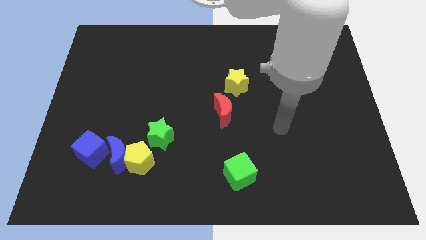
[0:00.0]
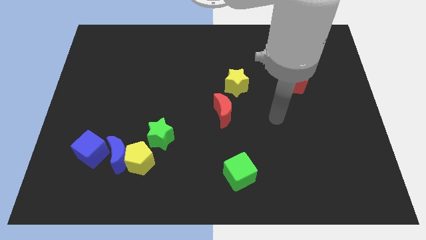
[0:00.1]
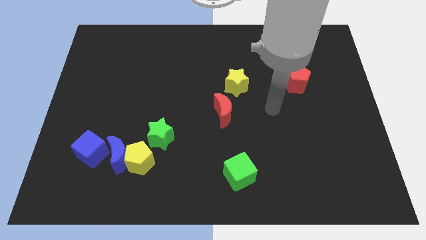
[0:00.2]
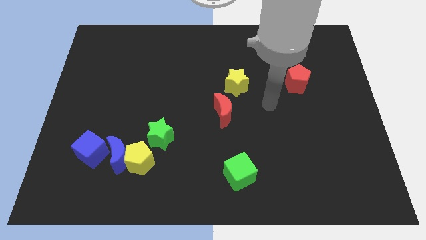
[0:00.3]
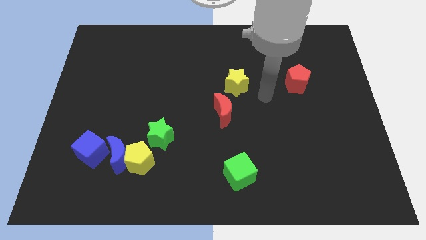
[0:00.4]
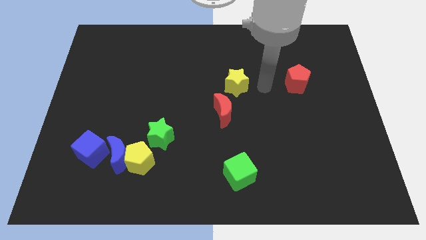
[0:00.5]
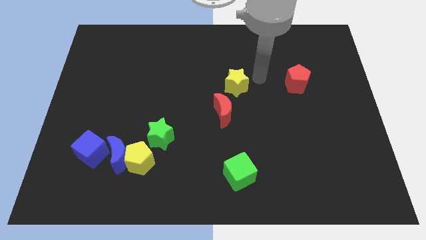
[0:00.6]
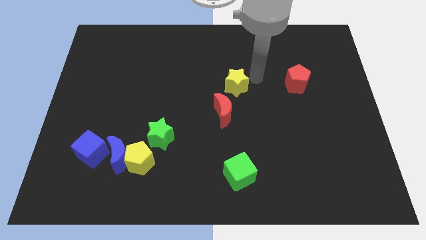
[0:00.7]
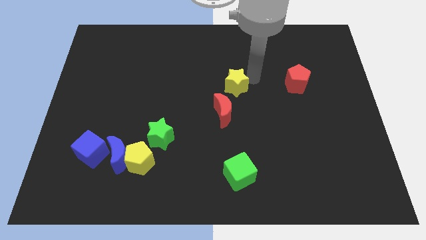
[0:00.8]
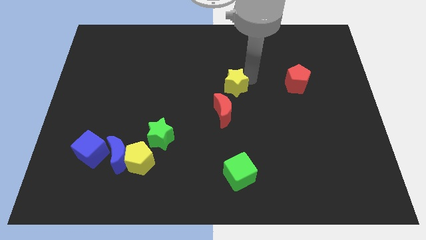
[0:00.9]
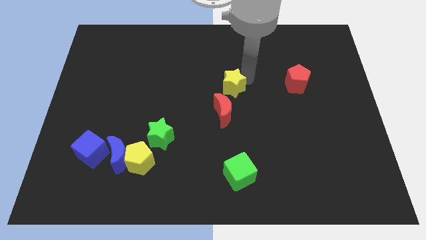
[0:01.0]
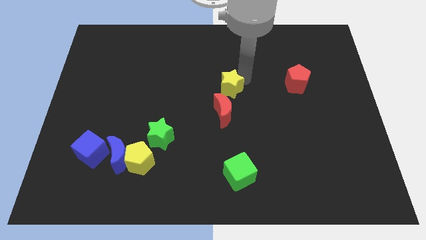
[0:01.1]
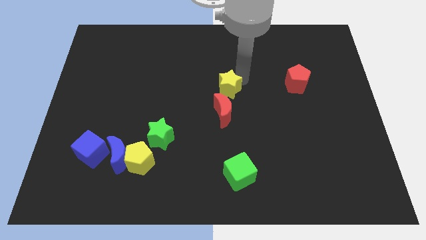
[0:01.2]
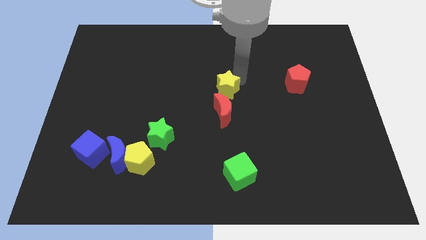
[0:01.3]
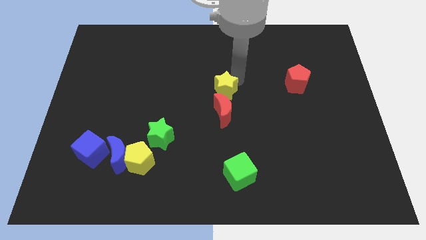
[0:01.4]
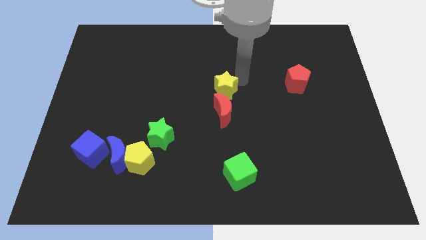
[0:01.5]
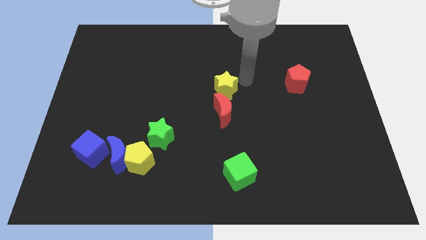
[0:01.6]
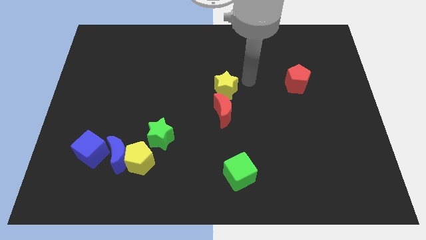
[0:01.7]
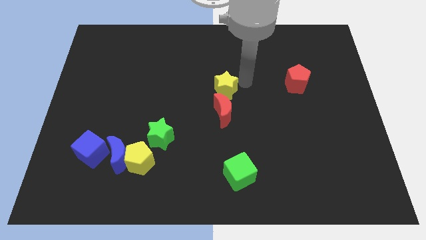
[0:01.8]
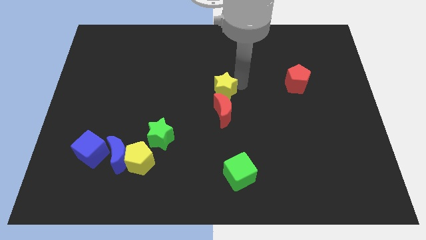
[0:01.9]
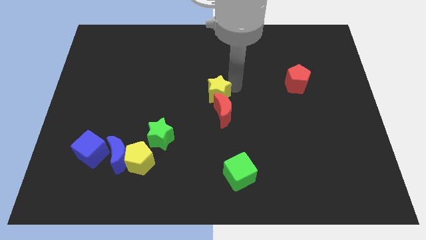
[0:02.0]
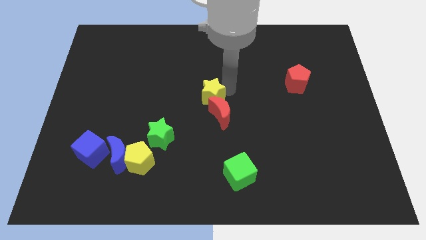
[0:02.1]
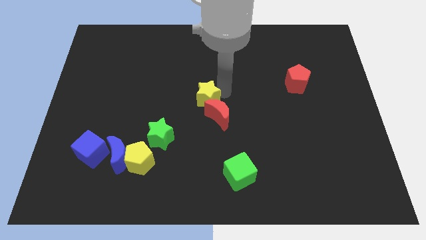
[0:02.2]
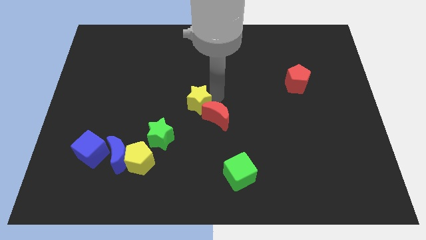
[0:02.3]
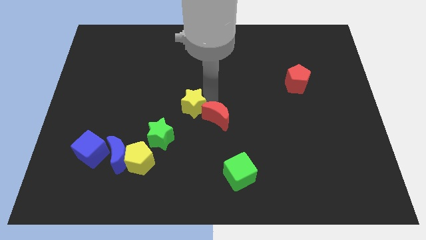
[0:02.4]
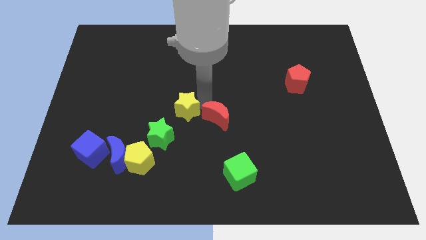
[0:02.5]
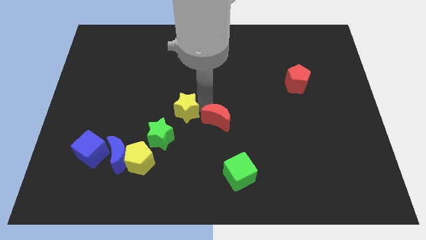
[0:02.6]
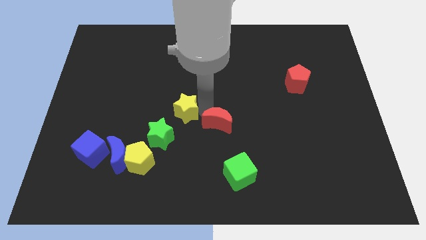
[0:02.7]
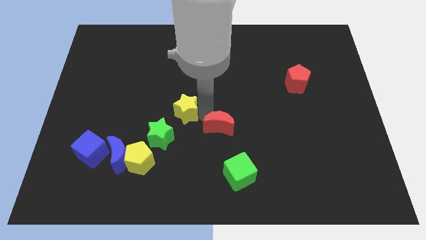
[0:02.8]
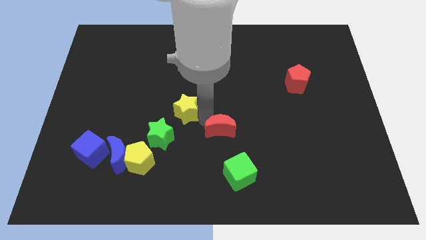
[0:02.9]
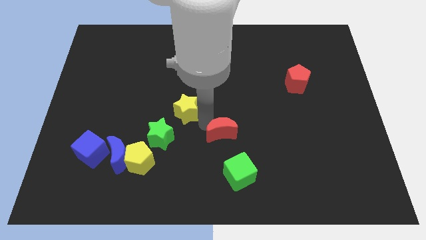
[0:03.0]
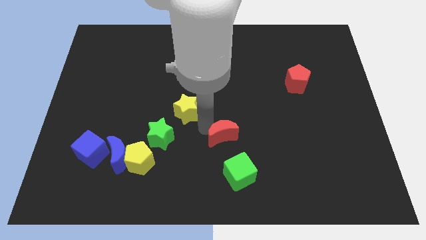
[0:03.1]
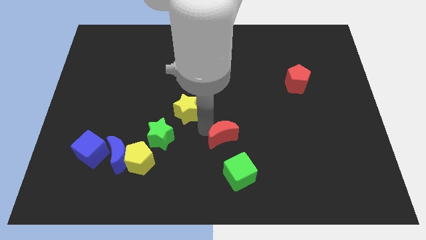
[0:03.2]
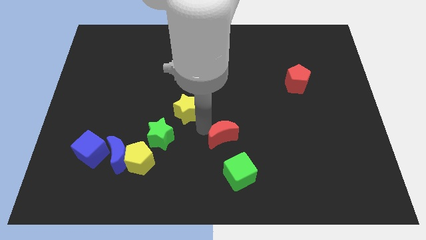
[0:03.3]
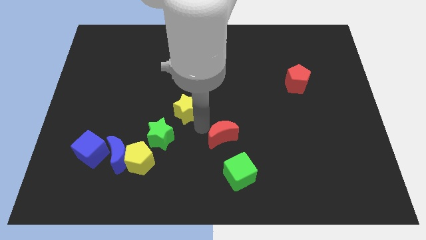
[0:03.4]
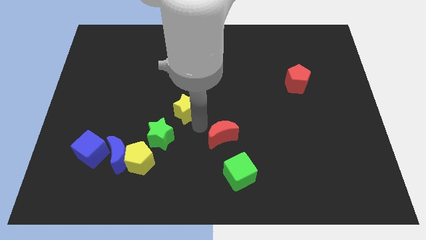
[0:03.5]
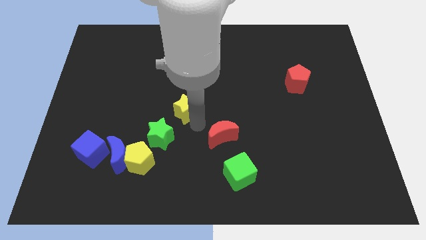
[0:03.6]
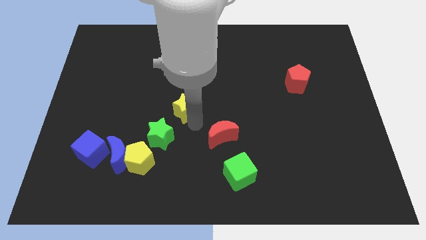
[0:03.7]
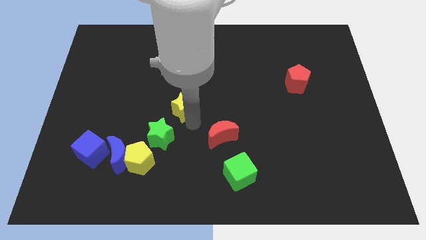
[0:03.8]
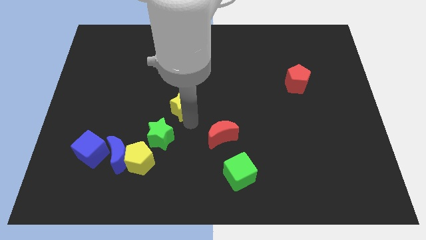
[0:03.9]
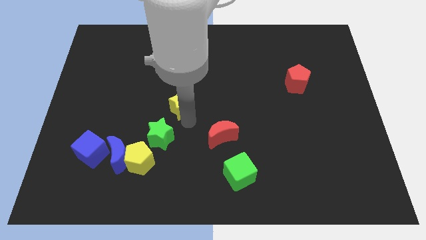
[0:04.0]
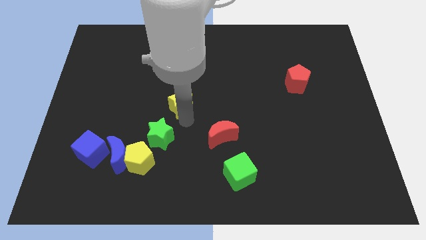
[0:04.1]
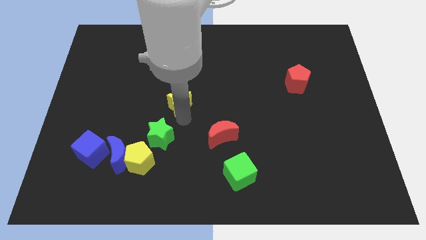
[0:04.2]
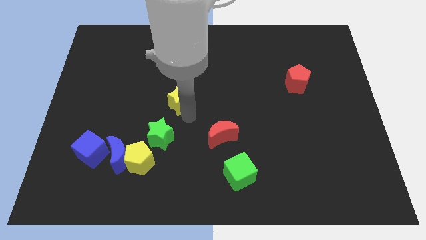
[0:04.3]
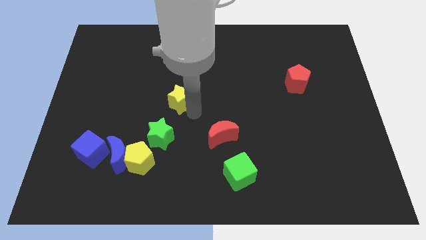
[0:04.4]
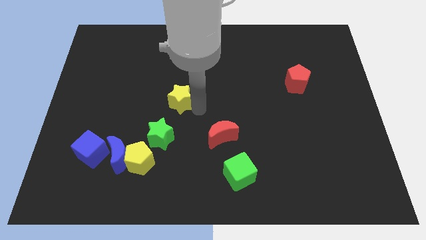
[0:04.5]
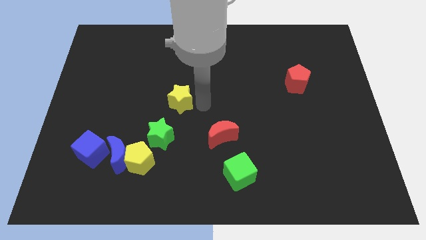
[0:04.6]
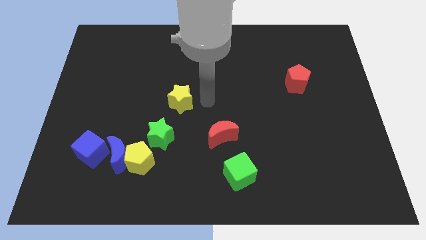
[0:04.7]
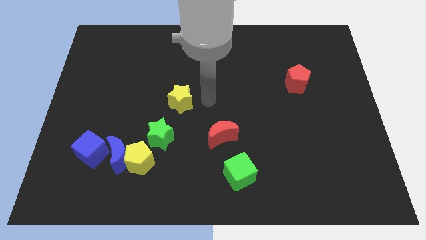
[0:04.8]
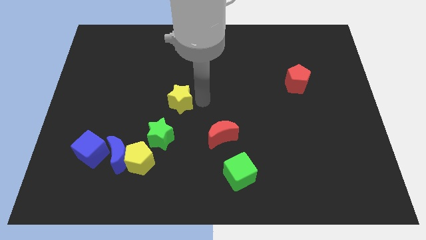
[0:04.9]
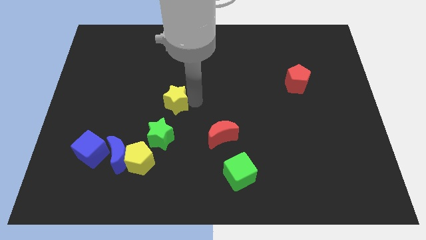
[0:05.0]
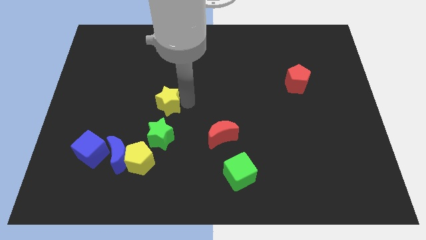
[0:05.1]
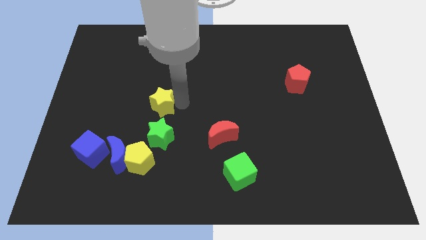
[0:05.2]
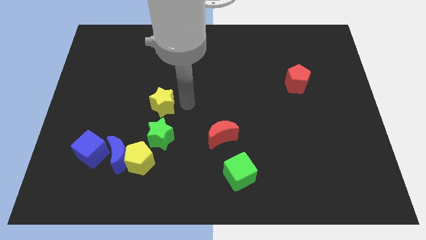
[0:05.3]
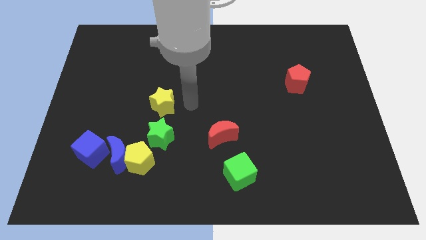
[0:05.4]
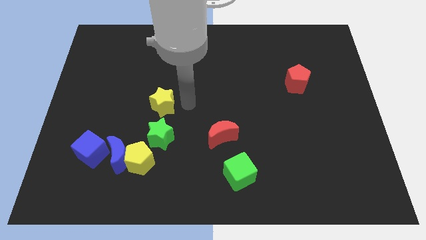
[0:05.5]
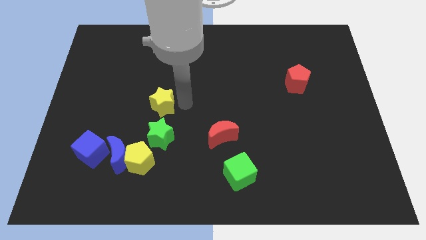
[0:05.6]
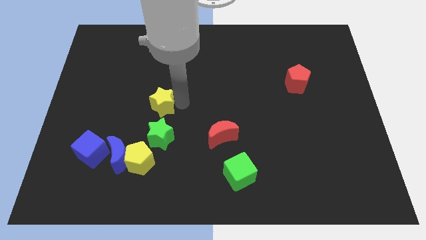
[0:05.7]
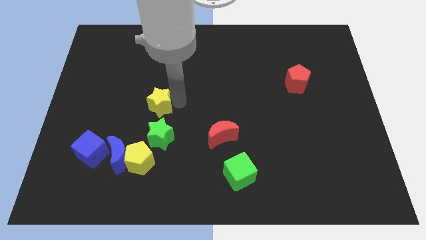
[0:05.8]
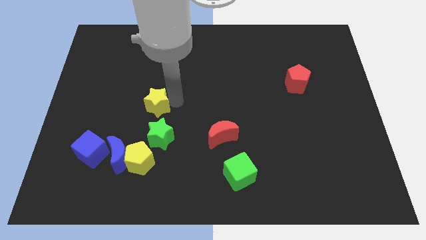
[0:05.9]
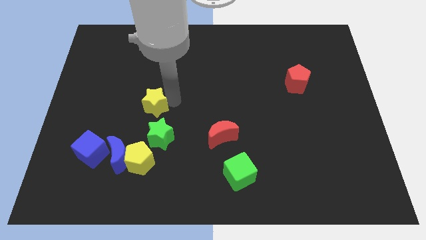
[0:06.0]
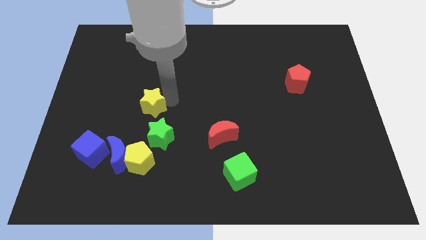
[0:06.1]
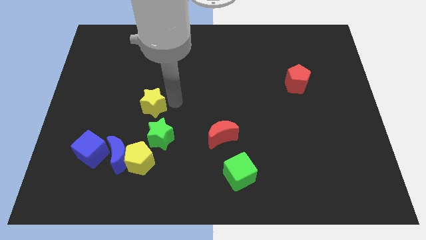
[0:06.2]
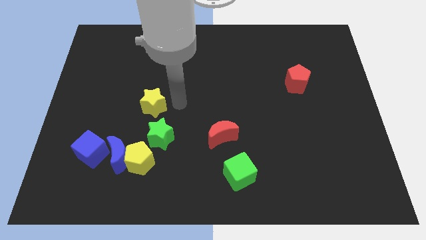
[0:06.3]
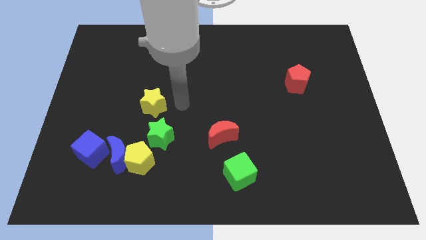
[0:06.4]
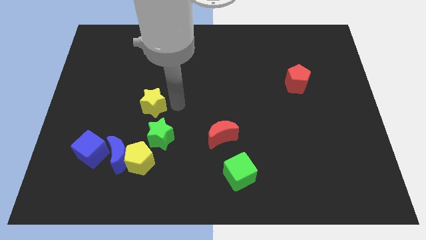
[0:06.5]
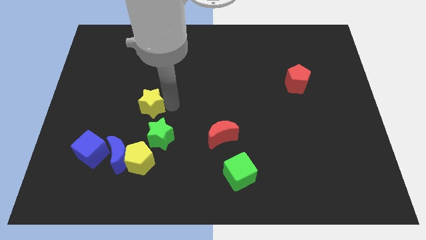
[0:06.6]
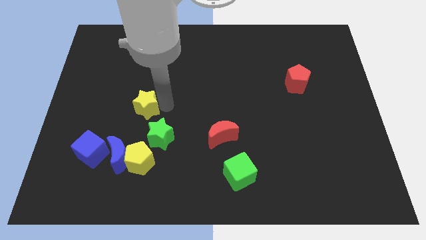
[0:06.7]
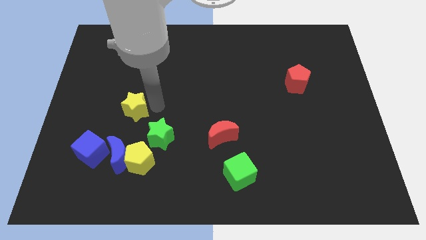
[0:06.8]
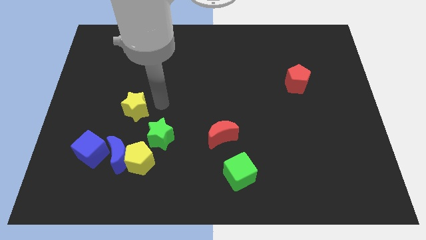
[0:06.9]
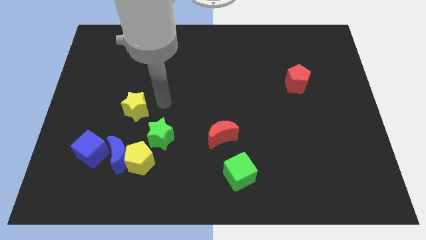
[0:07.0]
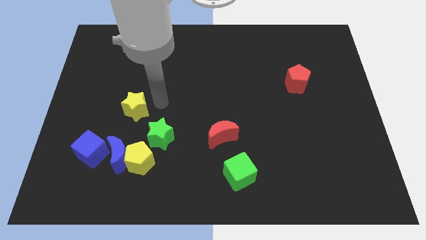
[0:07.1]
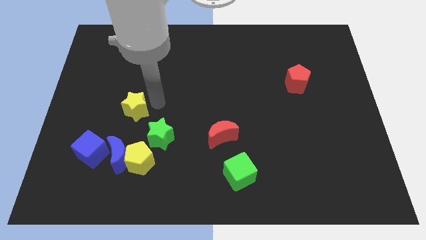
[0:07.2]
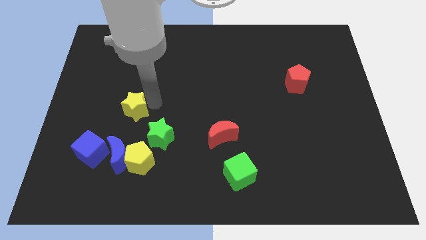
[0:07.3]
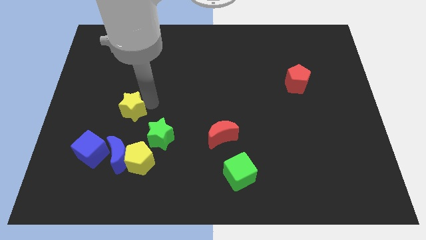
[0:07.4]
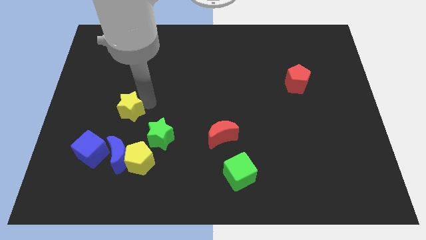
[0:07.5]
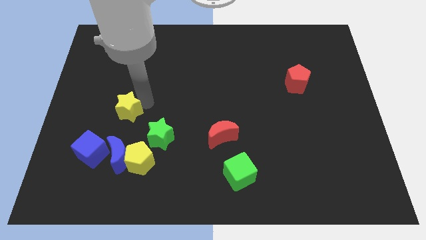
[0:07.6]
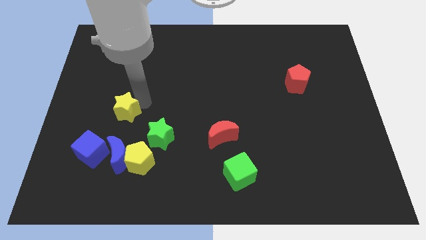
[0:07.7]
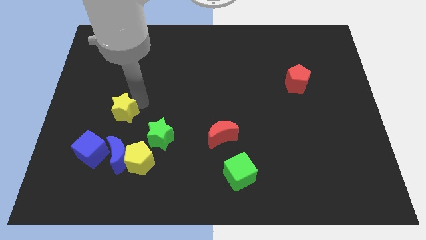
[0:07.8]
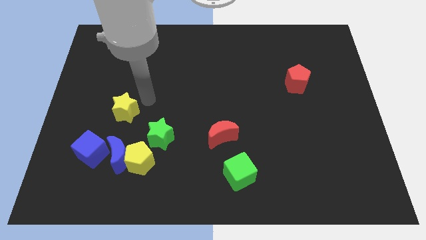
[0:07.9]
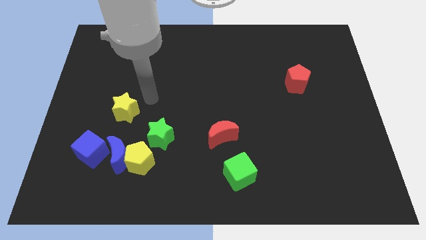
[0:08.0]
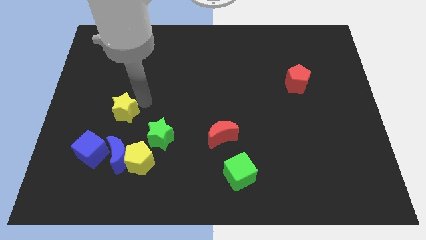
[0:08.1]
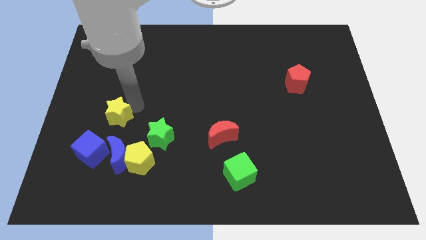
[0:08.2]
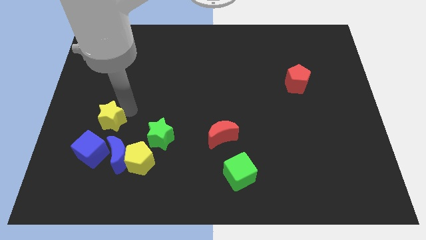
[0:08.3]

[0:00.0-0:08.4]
move the yellow star to the top left side of the blue moon
